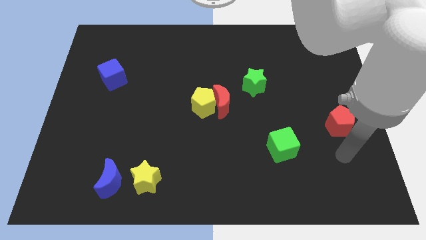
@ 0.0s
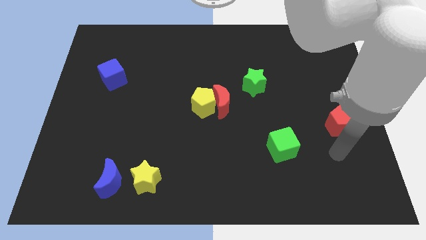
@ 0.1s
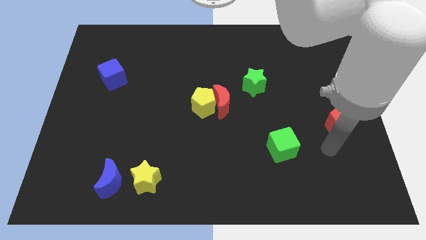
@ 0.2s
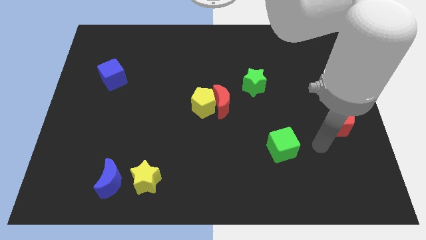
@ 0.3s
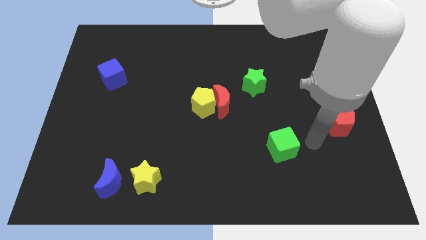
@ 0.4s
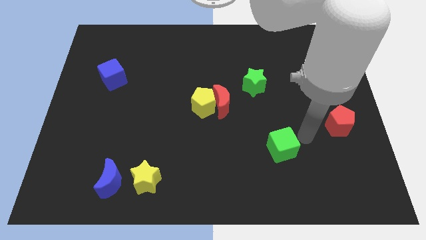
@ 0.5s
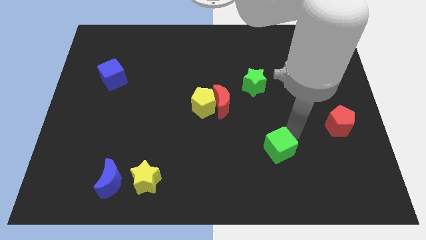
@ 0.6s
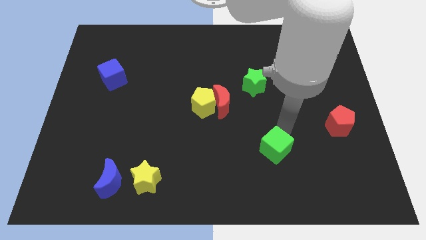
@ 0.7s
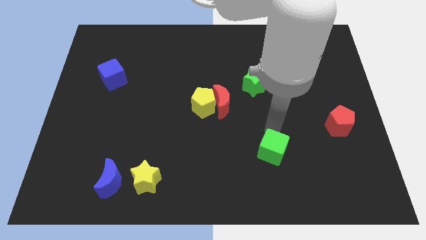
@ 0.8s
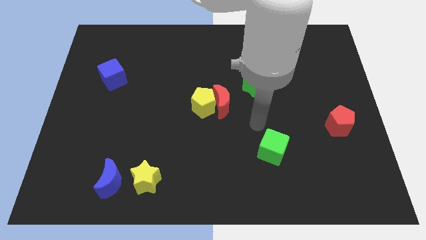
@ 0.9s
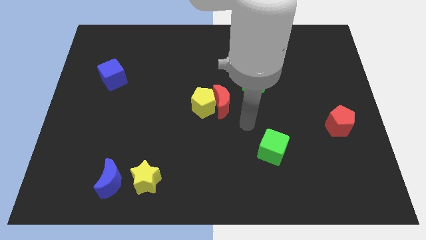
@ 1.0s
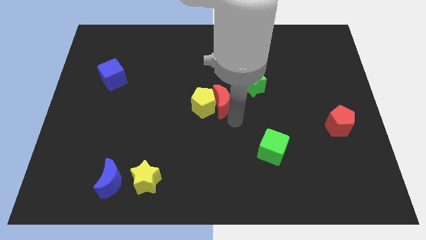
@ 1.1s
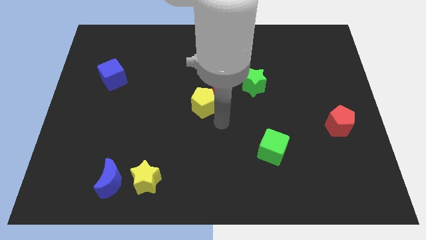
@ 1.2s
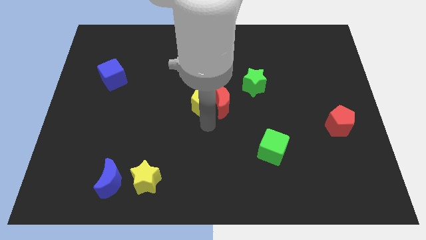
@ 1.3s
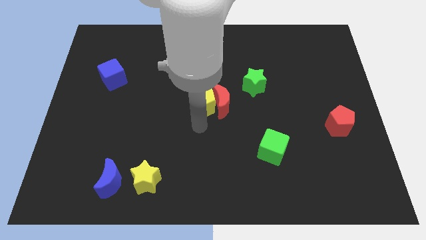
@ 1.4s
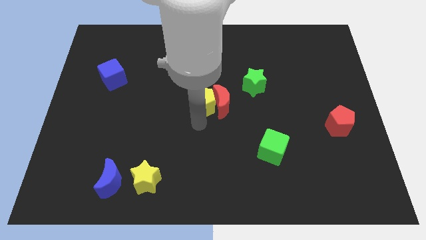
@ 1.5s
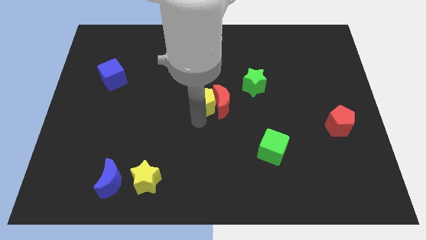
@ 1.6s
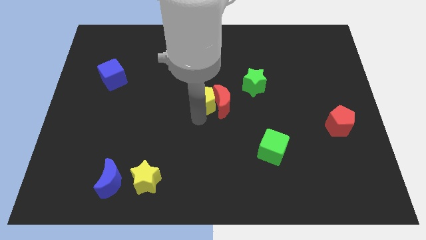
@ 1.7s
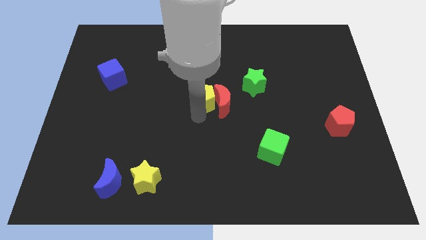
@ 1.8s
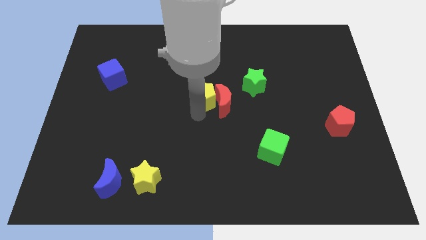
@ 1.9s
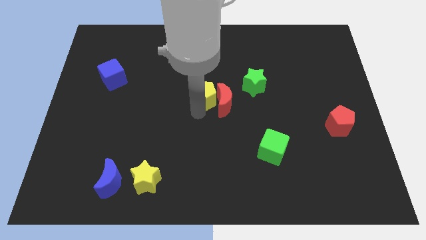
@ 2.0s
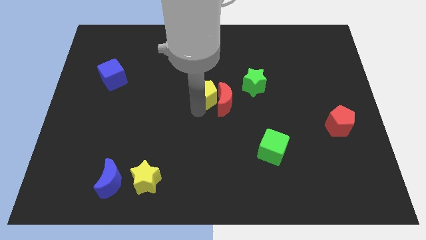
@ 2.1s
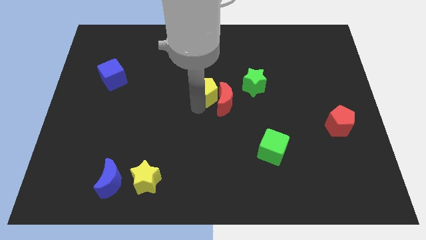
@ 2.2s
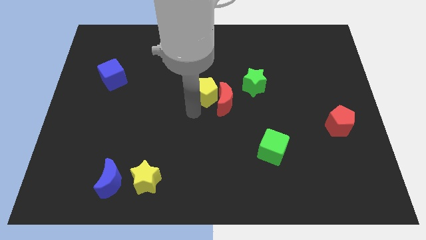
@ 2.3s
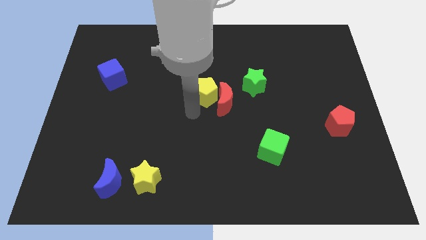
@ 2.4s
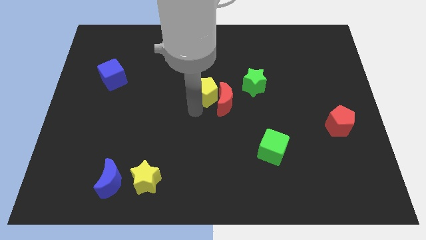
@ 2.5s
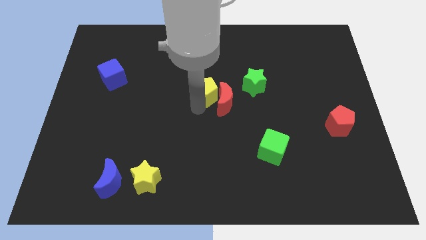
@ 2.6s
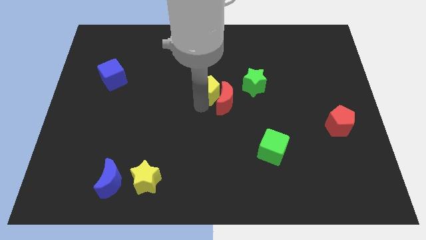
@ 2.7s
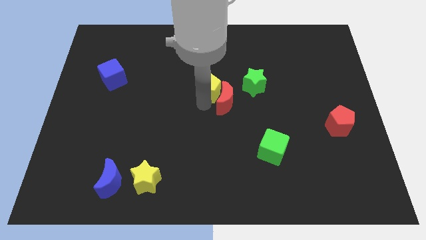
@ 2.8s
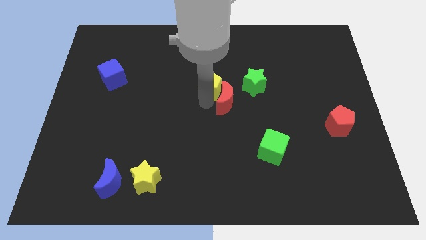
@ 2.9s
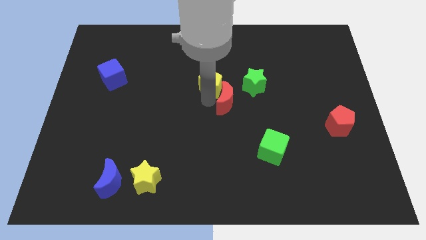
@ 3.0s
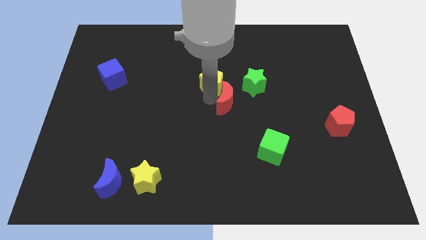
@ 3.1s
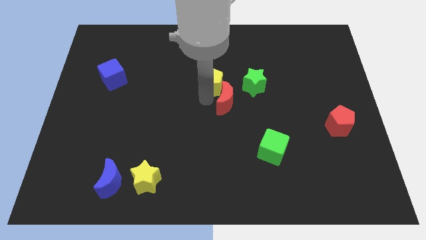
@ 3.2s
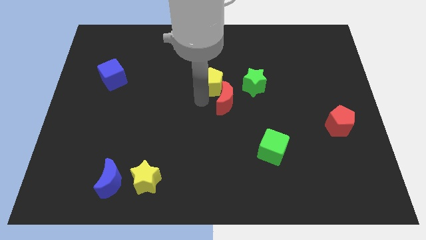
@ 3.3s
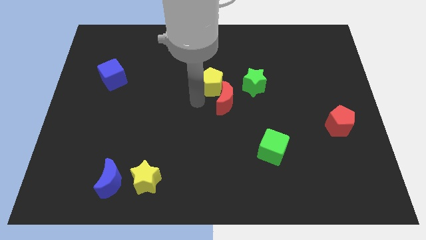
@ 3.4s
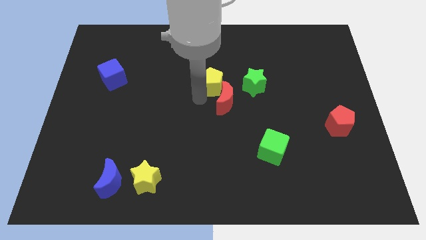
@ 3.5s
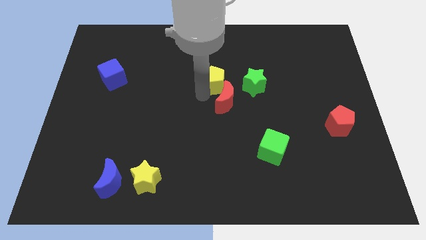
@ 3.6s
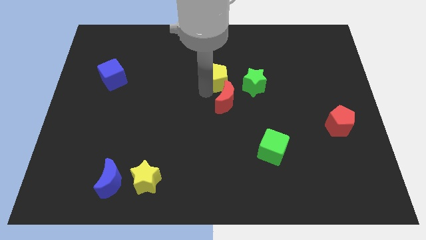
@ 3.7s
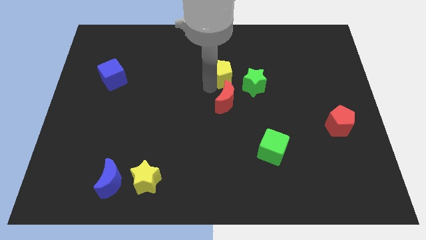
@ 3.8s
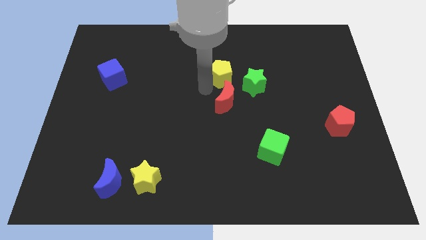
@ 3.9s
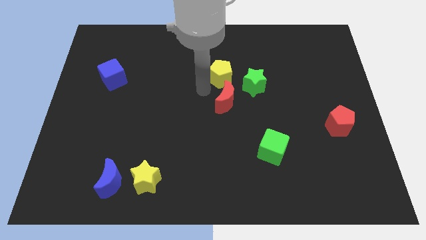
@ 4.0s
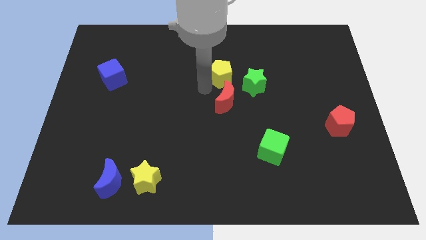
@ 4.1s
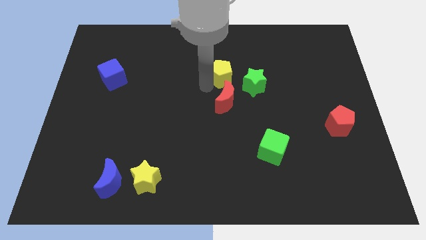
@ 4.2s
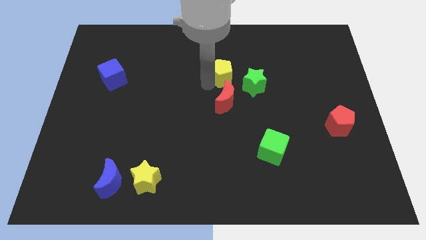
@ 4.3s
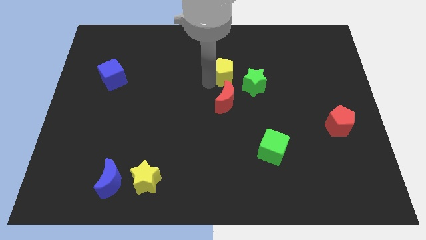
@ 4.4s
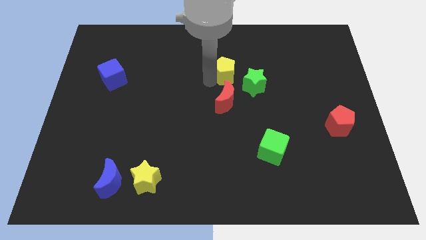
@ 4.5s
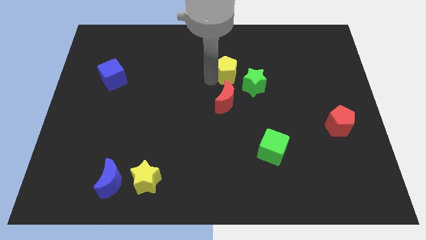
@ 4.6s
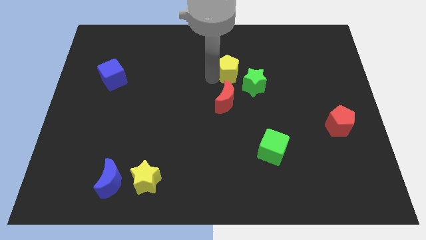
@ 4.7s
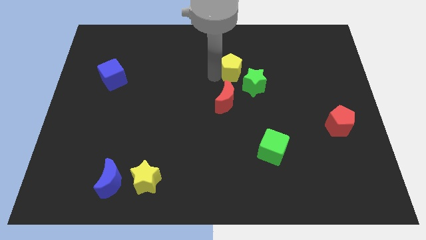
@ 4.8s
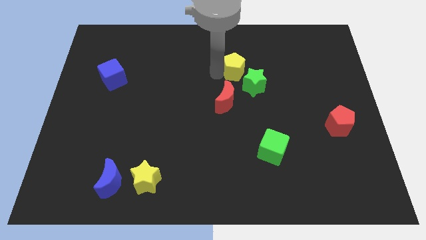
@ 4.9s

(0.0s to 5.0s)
push the yellow pentagon to the top of the green star

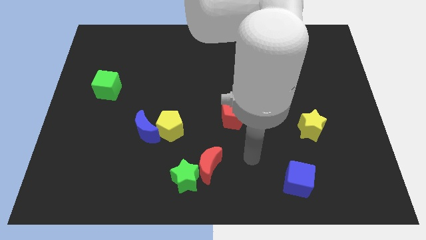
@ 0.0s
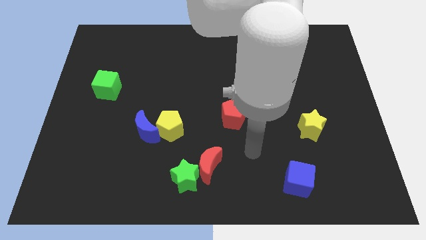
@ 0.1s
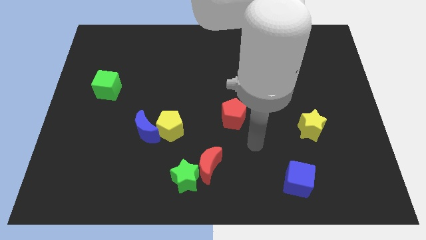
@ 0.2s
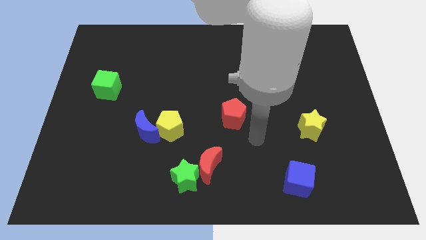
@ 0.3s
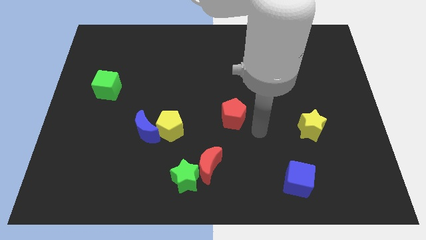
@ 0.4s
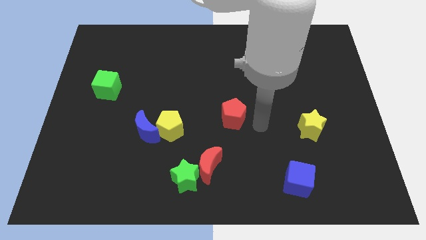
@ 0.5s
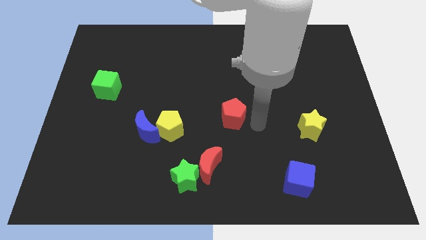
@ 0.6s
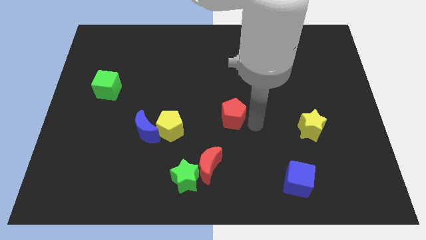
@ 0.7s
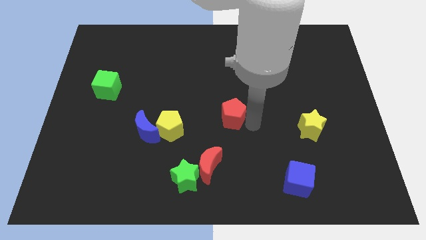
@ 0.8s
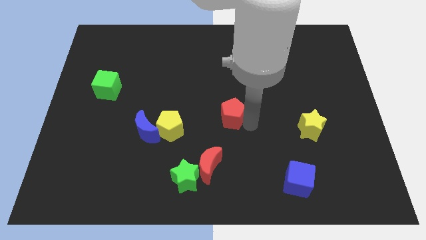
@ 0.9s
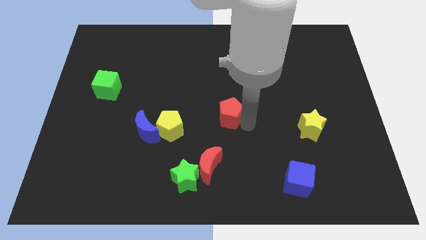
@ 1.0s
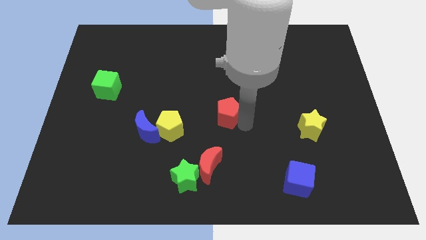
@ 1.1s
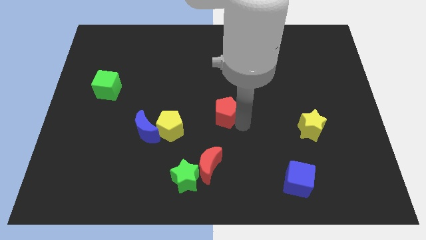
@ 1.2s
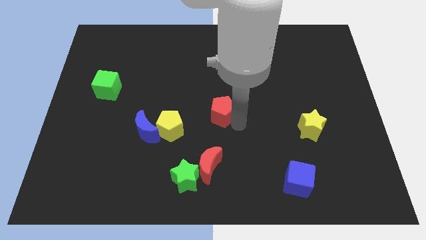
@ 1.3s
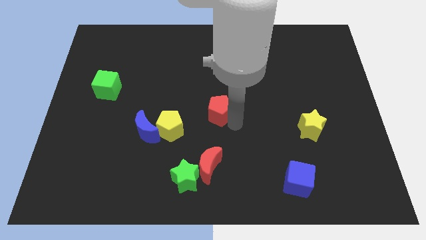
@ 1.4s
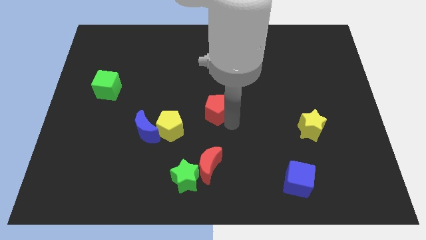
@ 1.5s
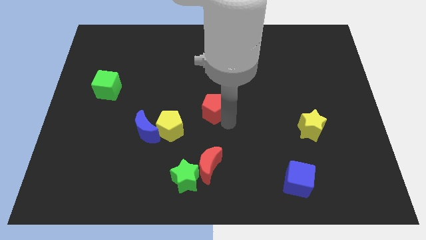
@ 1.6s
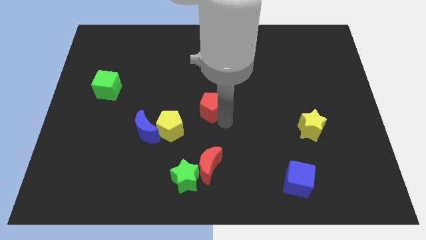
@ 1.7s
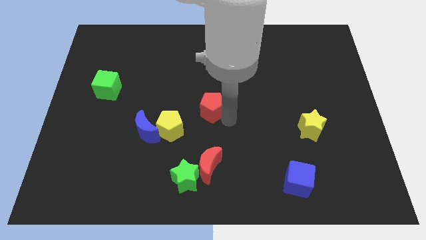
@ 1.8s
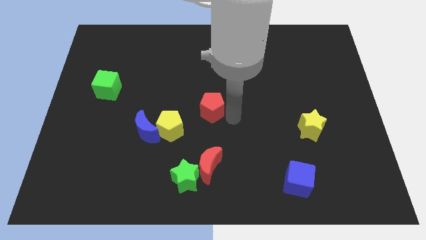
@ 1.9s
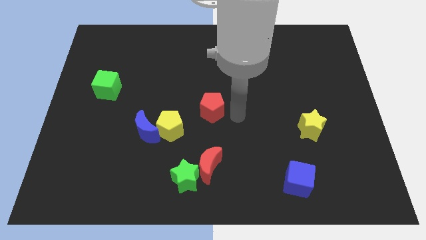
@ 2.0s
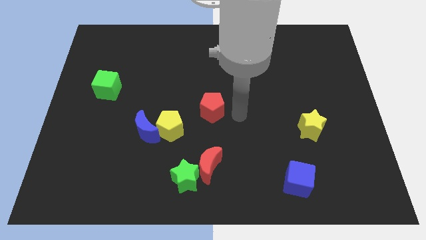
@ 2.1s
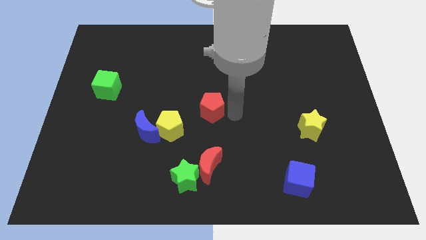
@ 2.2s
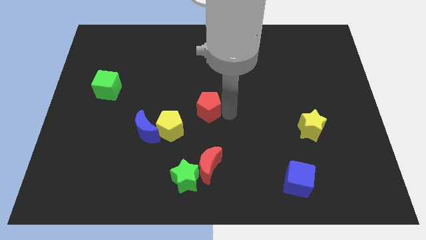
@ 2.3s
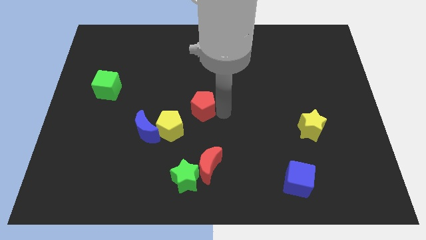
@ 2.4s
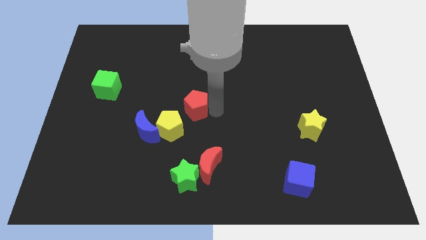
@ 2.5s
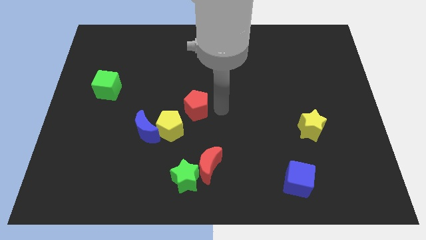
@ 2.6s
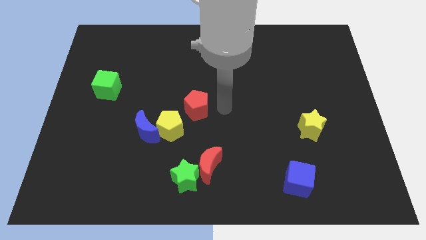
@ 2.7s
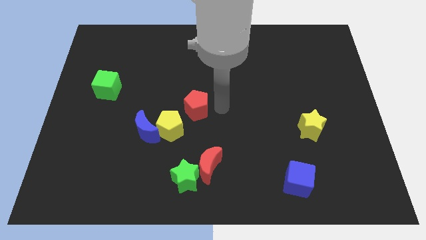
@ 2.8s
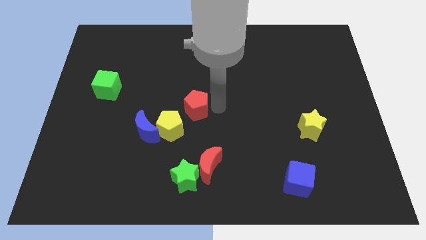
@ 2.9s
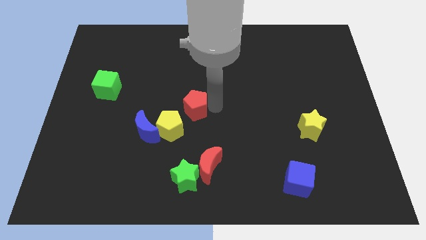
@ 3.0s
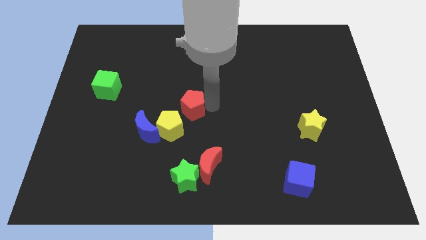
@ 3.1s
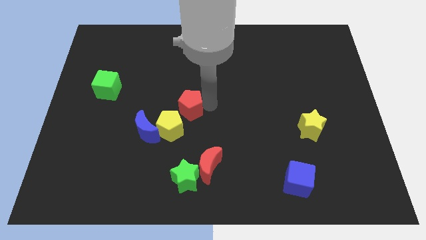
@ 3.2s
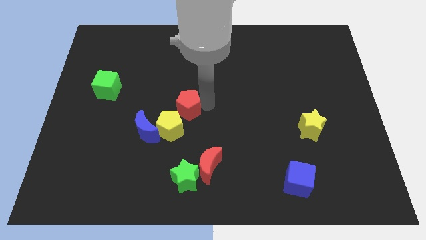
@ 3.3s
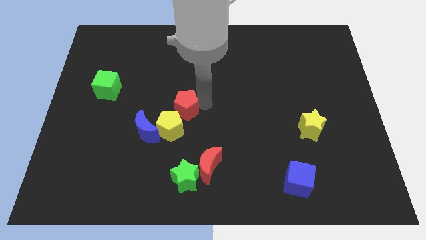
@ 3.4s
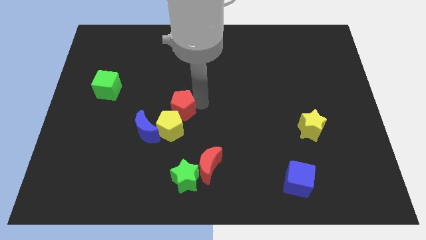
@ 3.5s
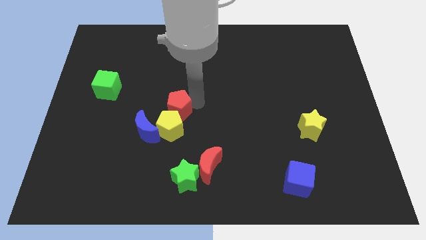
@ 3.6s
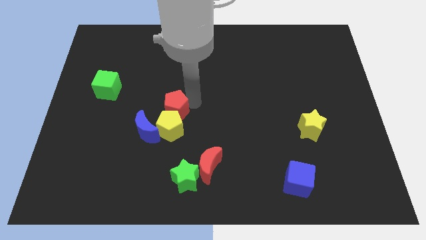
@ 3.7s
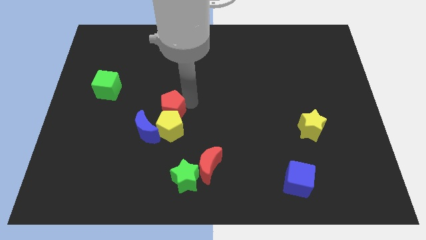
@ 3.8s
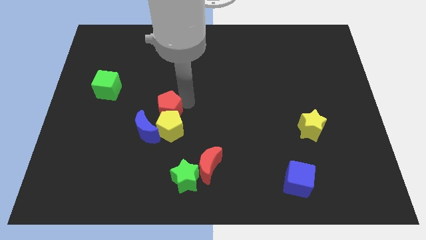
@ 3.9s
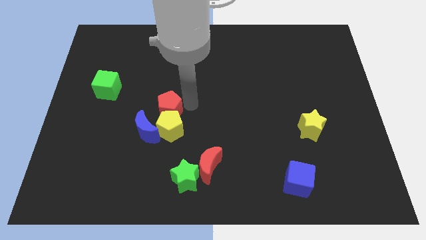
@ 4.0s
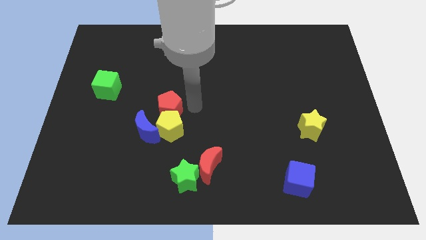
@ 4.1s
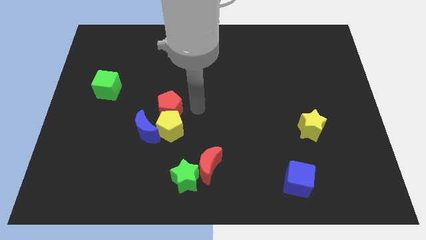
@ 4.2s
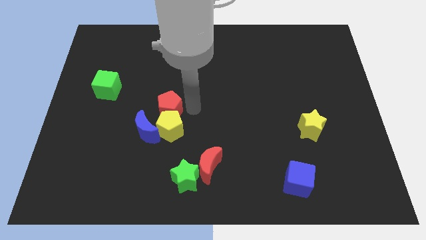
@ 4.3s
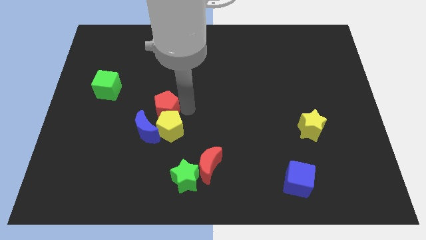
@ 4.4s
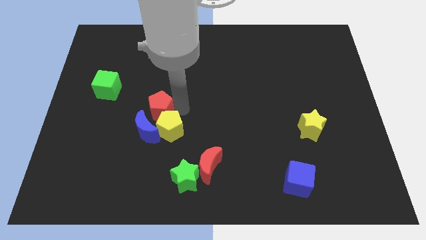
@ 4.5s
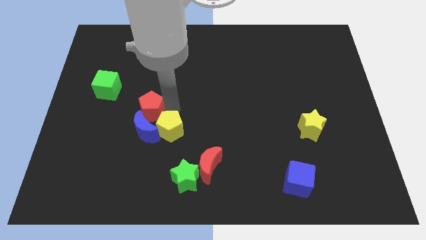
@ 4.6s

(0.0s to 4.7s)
slide the red pentagon to the top left of the blue moon
